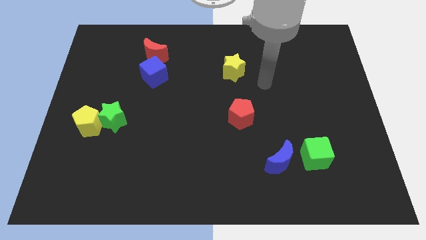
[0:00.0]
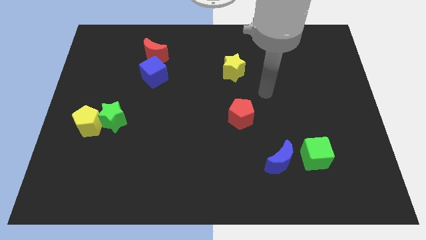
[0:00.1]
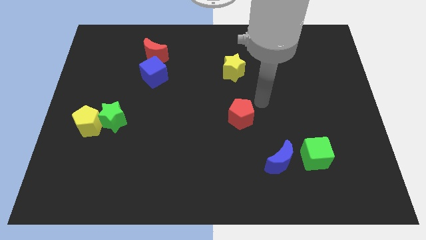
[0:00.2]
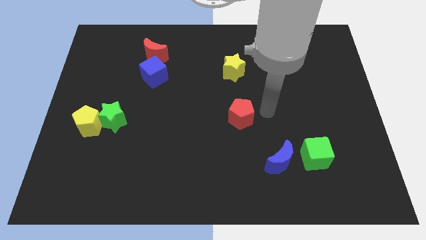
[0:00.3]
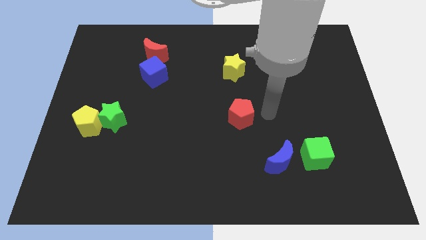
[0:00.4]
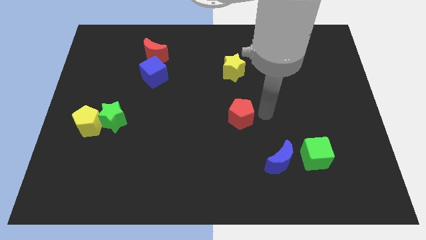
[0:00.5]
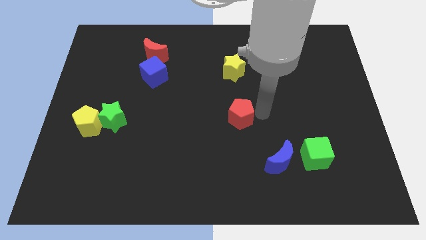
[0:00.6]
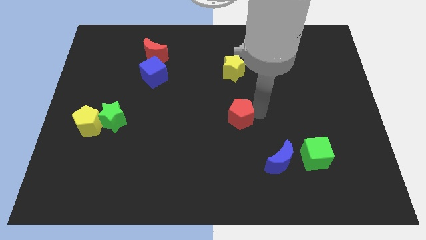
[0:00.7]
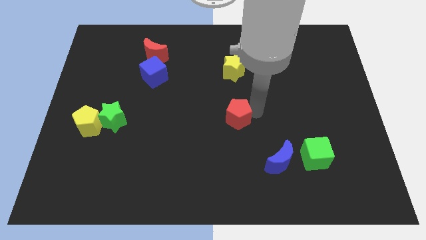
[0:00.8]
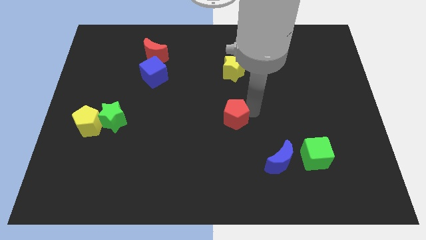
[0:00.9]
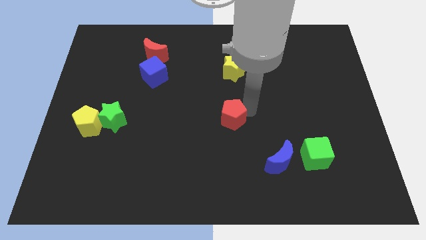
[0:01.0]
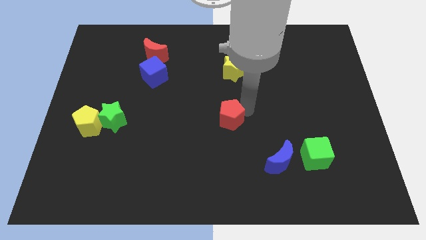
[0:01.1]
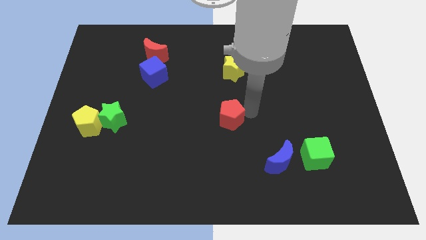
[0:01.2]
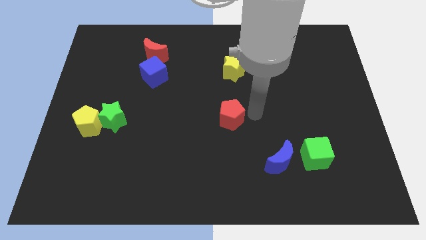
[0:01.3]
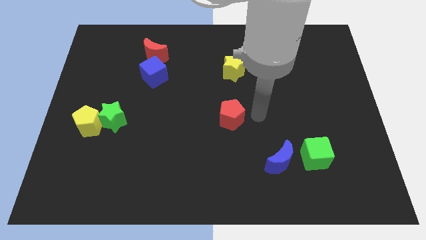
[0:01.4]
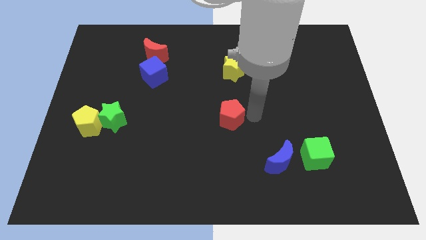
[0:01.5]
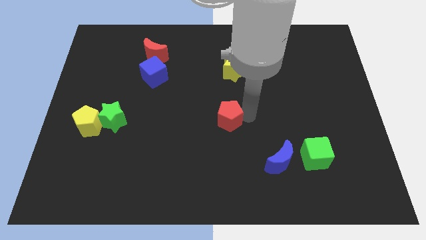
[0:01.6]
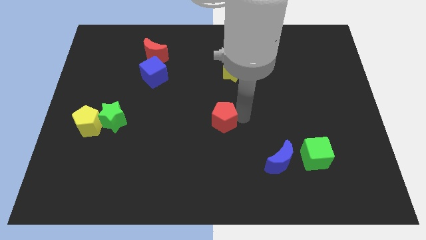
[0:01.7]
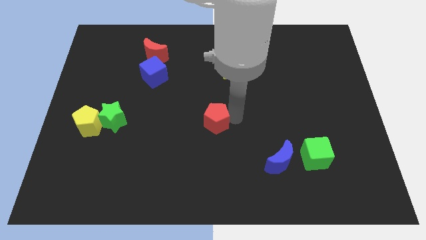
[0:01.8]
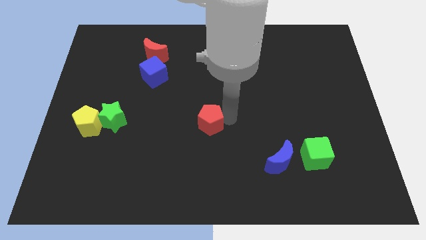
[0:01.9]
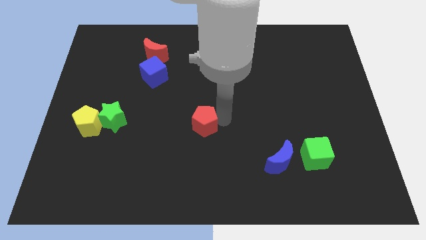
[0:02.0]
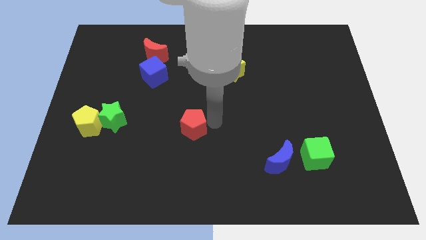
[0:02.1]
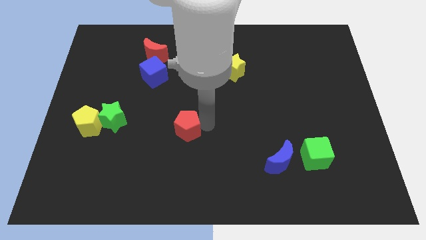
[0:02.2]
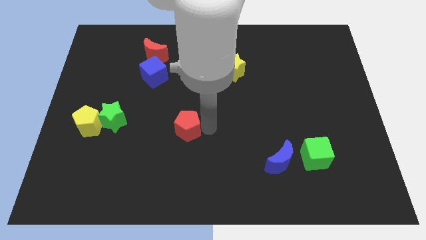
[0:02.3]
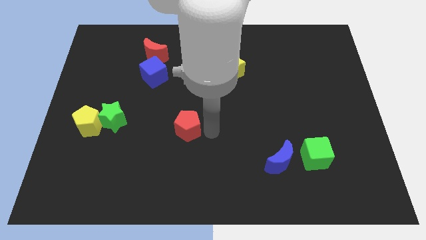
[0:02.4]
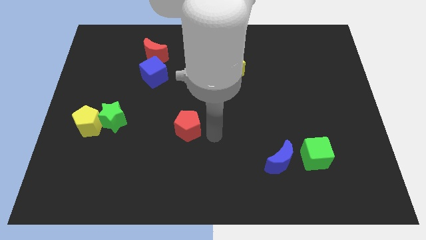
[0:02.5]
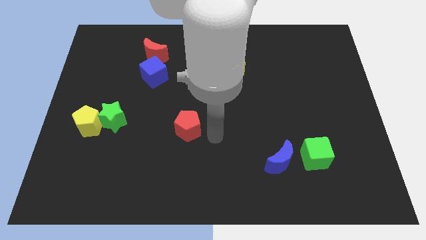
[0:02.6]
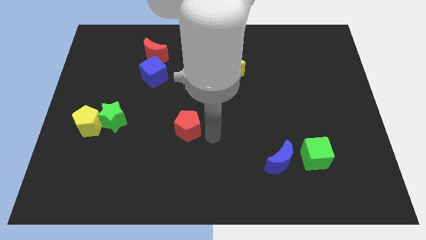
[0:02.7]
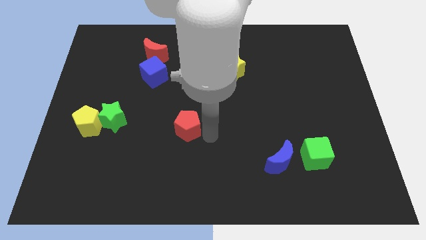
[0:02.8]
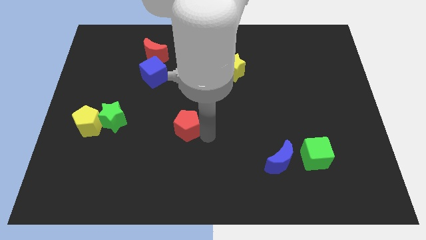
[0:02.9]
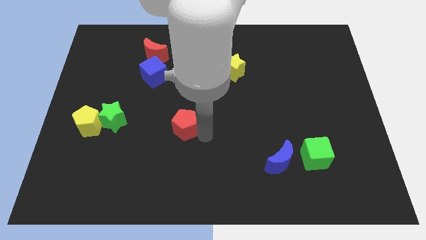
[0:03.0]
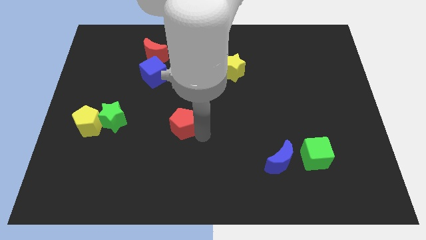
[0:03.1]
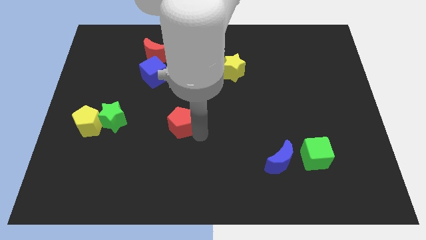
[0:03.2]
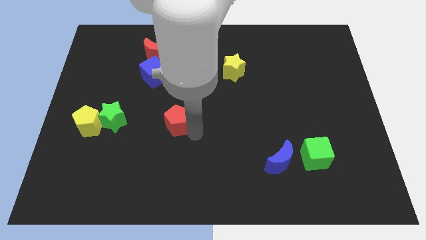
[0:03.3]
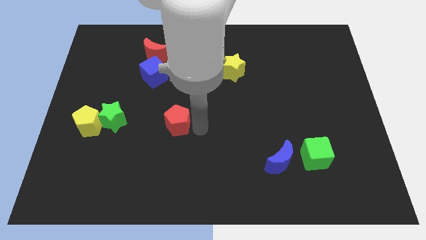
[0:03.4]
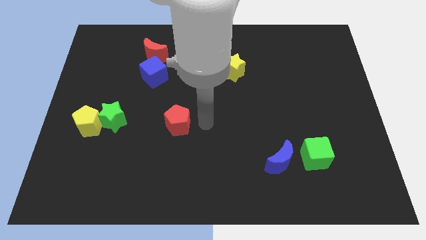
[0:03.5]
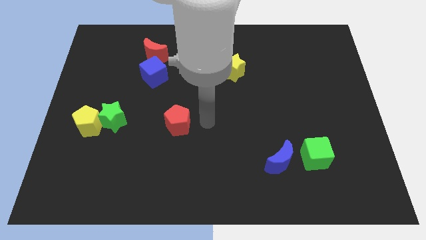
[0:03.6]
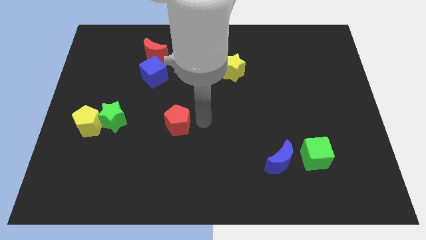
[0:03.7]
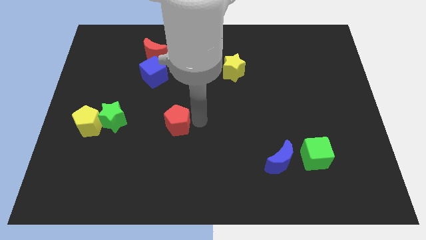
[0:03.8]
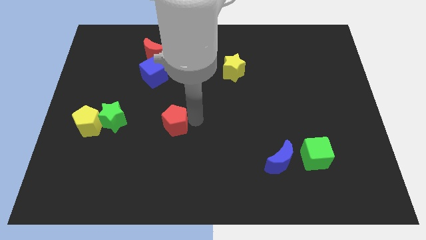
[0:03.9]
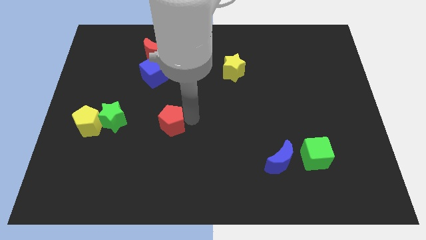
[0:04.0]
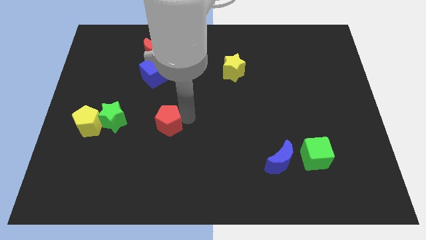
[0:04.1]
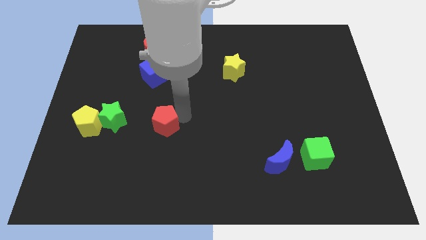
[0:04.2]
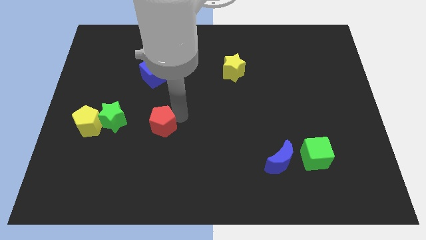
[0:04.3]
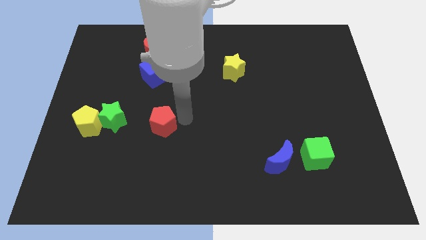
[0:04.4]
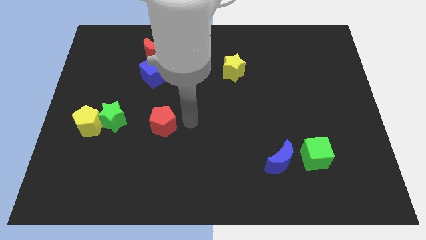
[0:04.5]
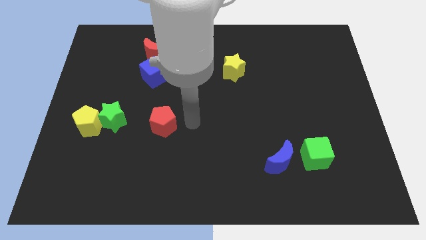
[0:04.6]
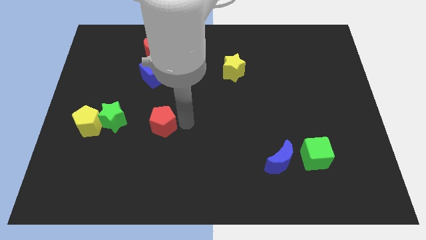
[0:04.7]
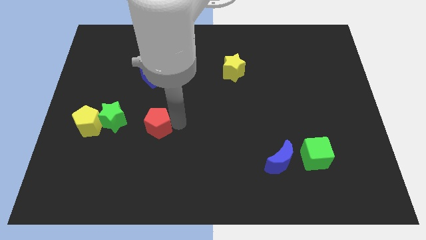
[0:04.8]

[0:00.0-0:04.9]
slide the red pentagon just right of the yellow pentagon

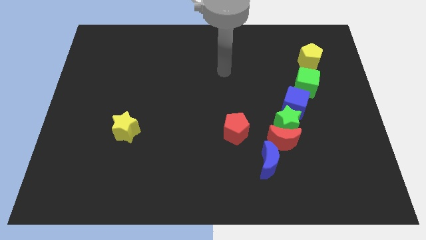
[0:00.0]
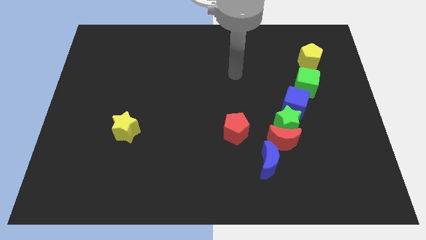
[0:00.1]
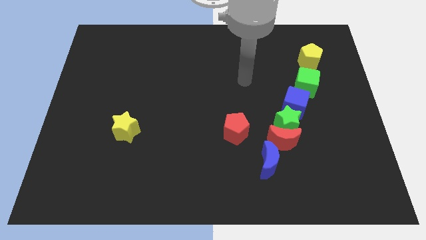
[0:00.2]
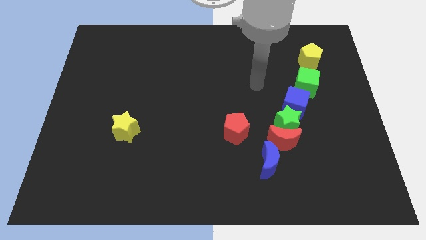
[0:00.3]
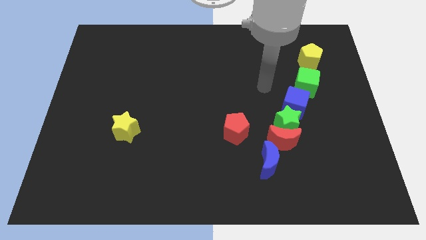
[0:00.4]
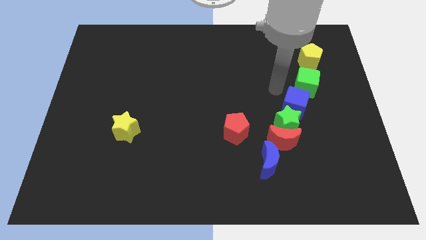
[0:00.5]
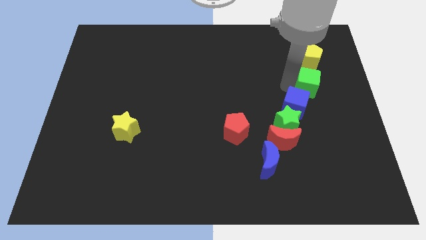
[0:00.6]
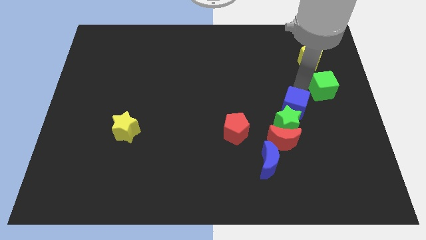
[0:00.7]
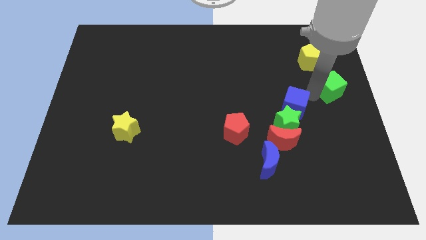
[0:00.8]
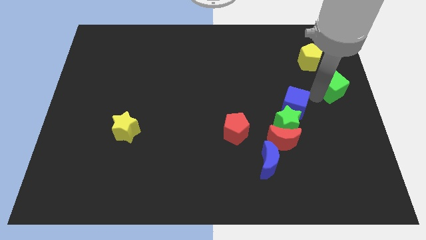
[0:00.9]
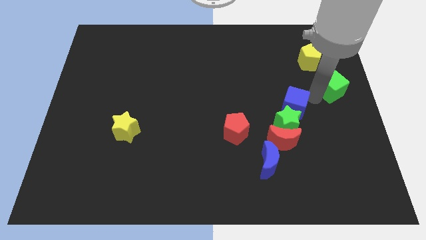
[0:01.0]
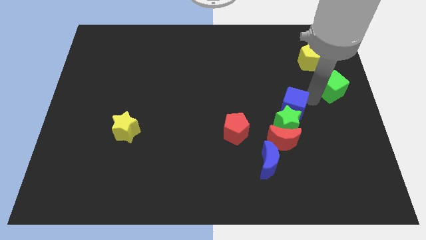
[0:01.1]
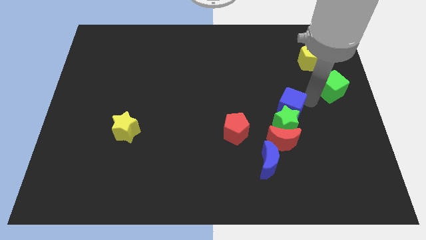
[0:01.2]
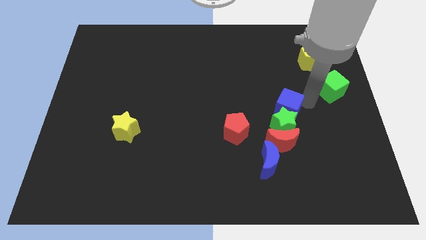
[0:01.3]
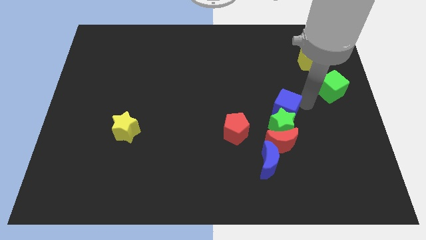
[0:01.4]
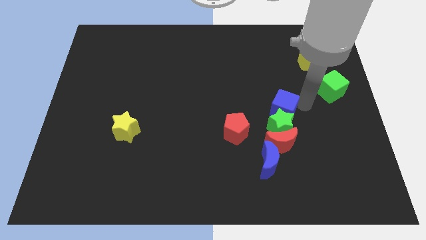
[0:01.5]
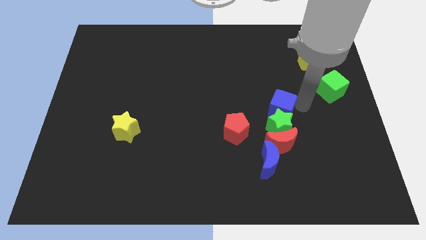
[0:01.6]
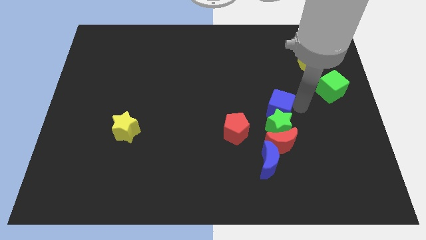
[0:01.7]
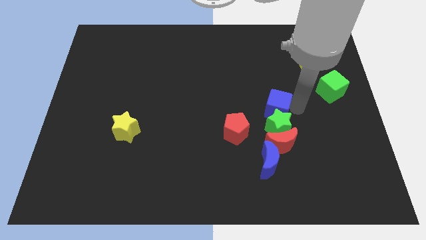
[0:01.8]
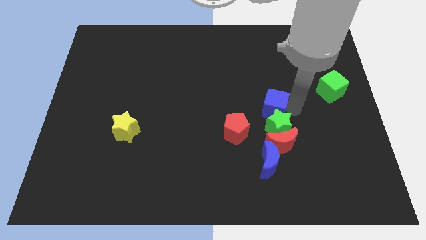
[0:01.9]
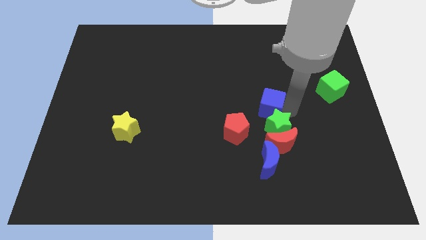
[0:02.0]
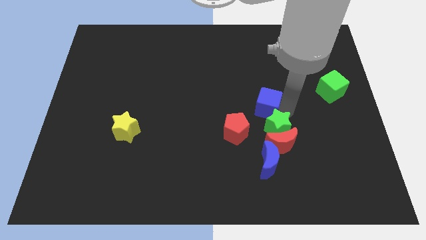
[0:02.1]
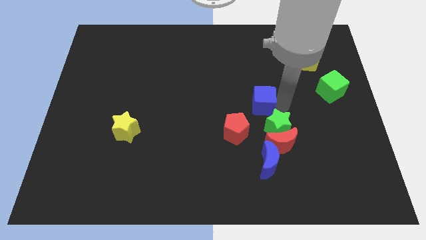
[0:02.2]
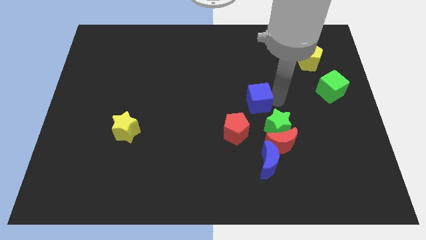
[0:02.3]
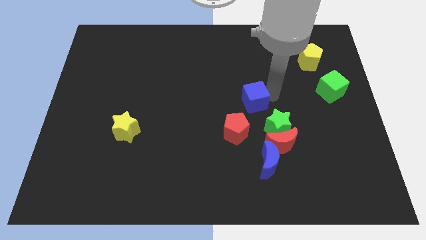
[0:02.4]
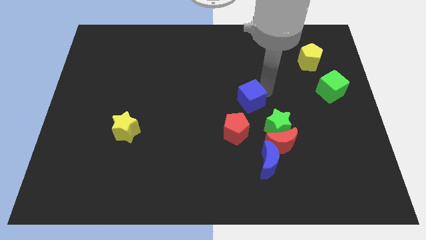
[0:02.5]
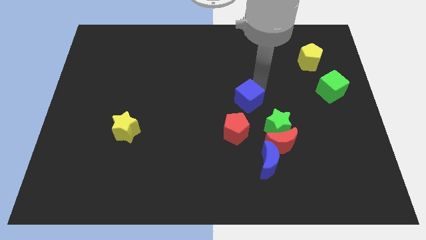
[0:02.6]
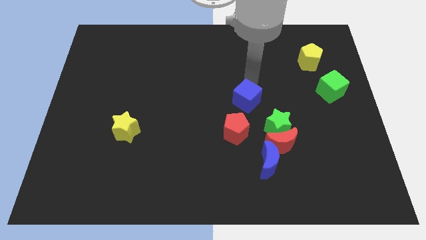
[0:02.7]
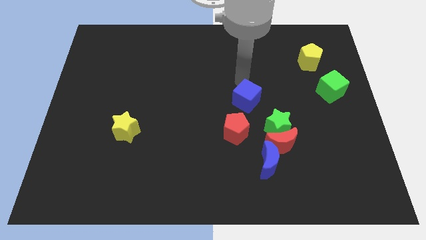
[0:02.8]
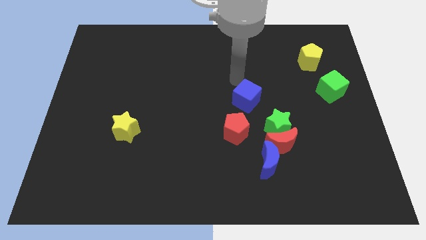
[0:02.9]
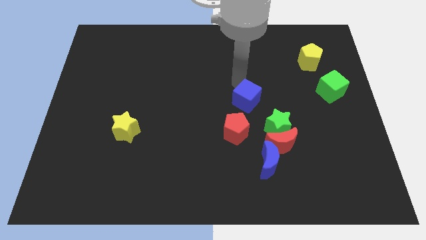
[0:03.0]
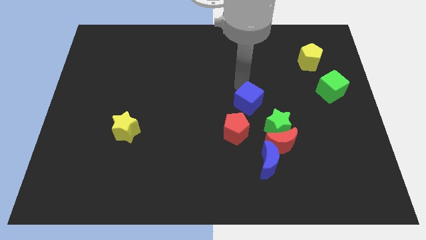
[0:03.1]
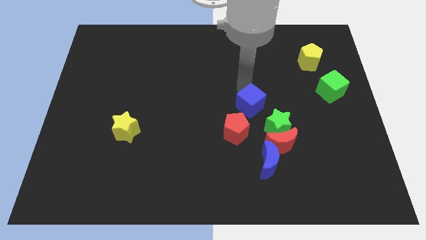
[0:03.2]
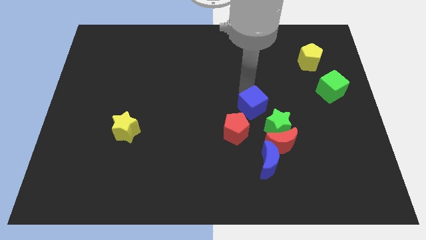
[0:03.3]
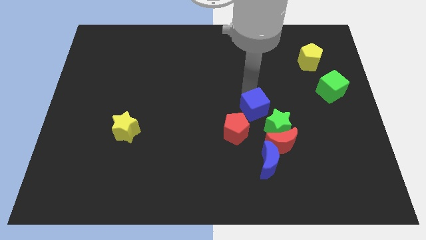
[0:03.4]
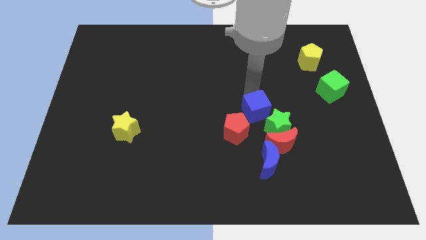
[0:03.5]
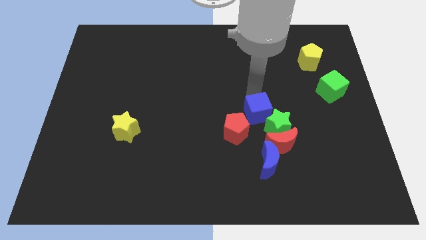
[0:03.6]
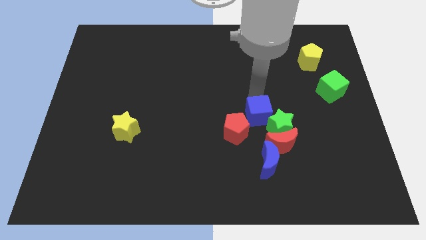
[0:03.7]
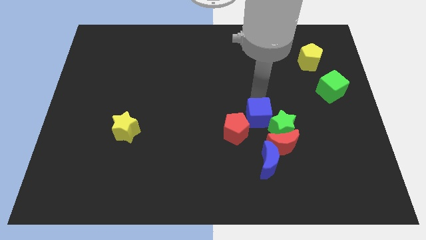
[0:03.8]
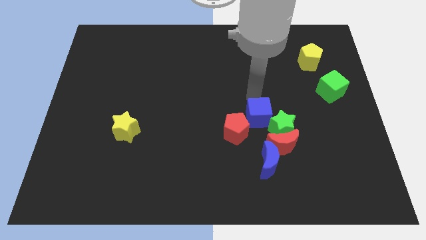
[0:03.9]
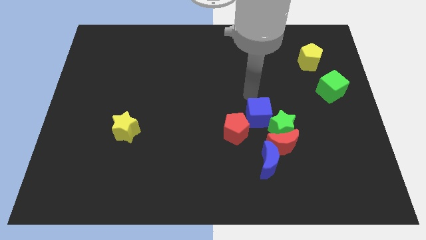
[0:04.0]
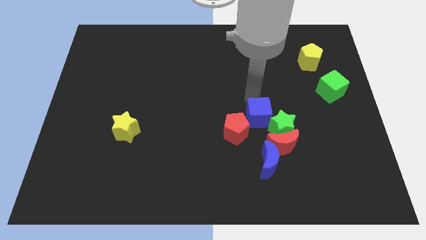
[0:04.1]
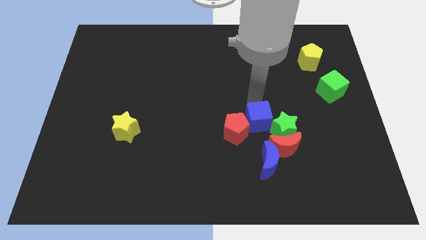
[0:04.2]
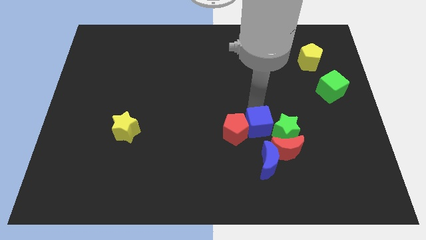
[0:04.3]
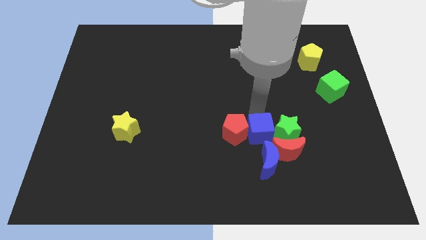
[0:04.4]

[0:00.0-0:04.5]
put the blue cube diagonally down and to the left of the green star
